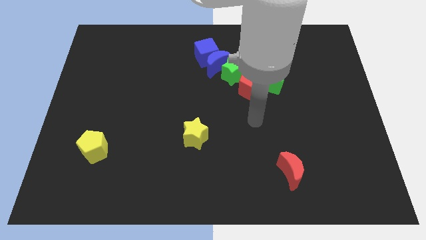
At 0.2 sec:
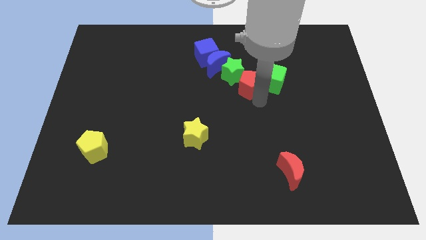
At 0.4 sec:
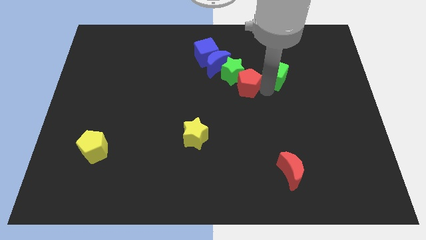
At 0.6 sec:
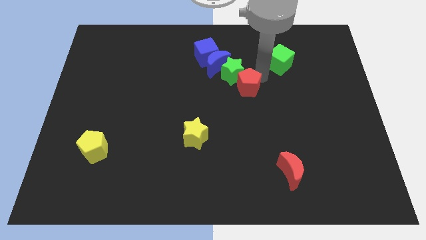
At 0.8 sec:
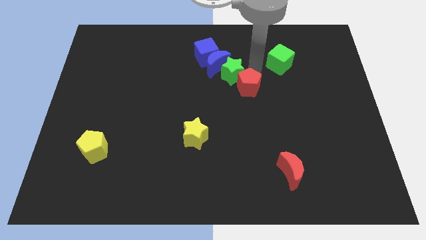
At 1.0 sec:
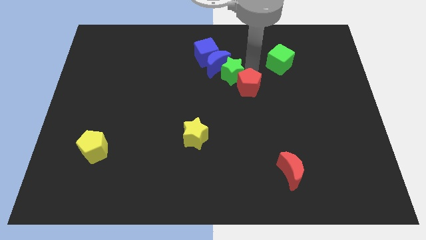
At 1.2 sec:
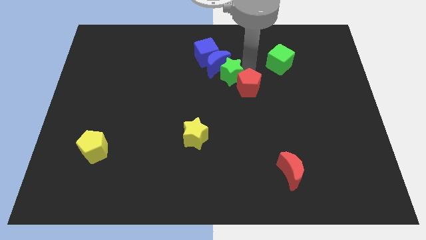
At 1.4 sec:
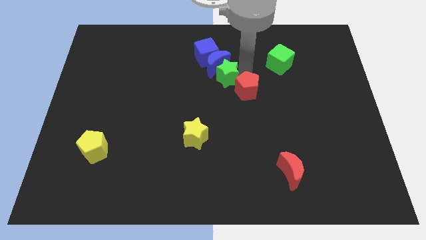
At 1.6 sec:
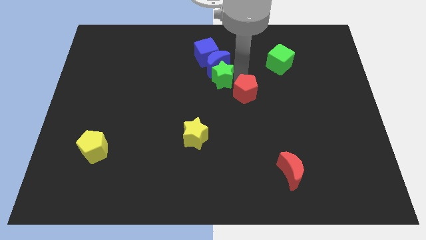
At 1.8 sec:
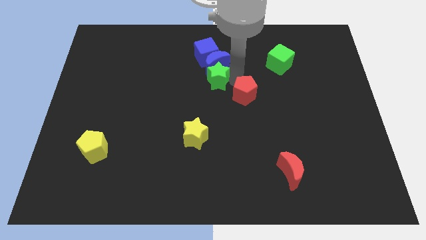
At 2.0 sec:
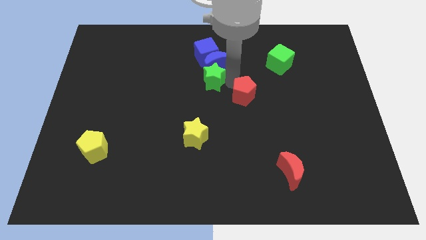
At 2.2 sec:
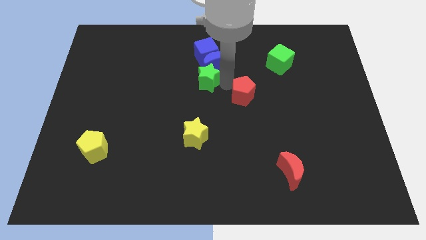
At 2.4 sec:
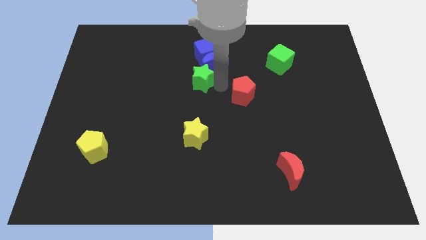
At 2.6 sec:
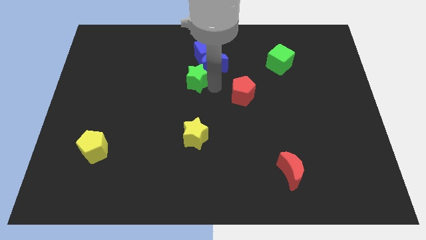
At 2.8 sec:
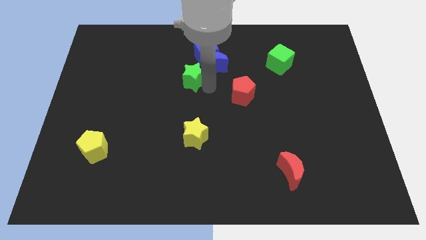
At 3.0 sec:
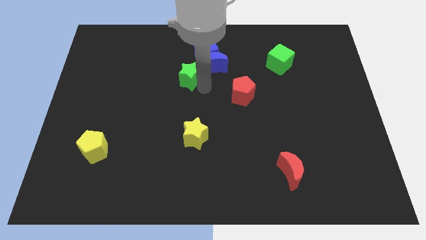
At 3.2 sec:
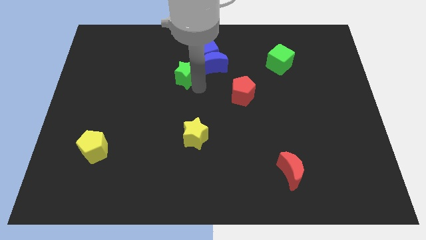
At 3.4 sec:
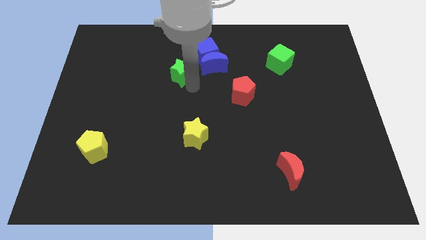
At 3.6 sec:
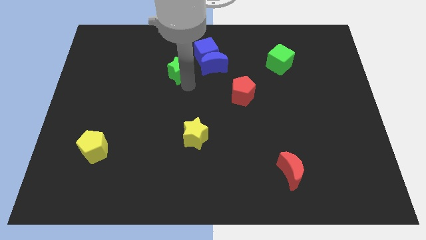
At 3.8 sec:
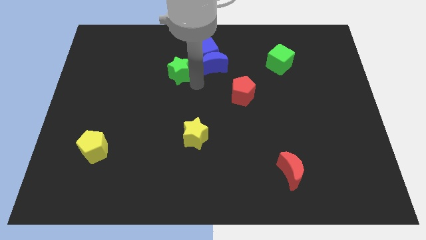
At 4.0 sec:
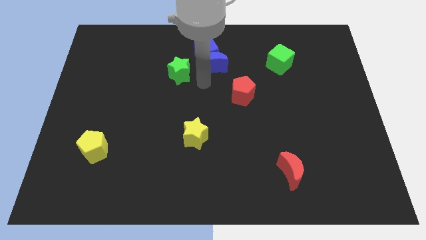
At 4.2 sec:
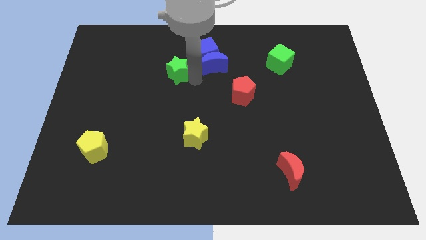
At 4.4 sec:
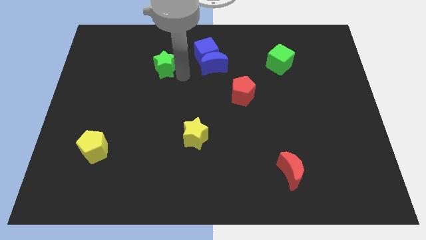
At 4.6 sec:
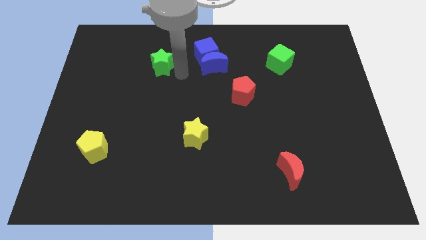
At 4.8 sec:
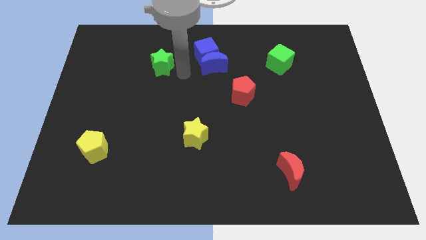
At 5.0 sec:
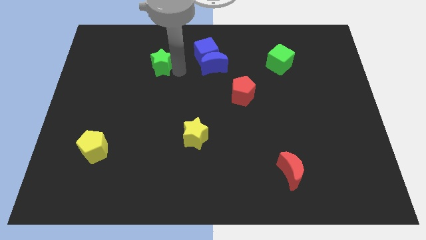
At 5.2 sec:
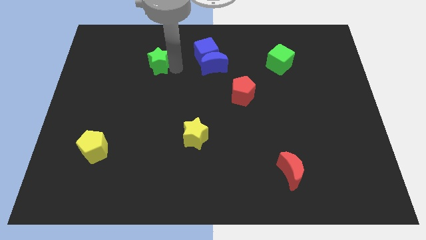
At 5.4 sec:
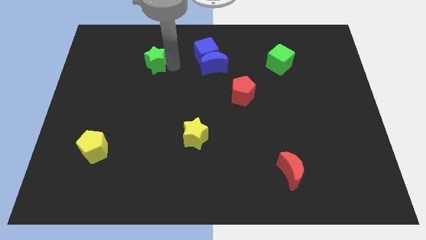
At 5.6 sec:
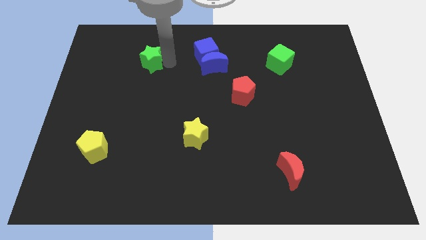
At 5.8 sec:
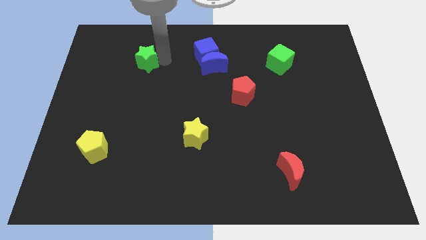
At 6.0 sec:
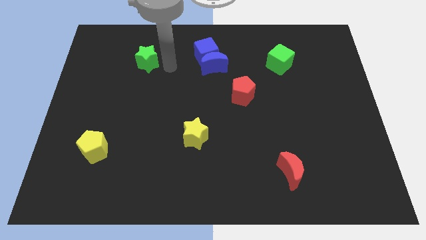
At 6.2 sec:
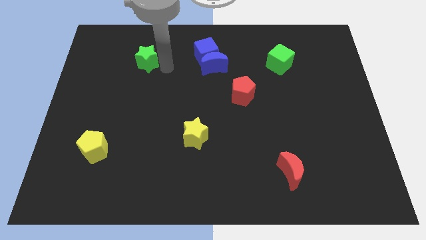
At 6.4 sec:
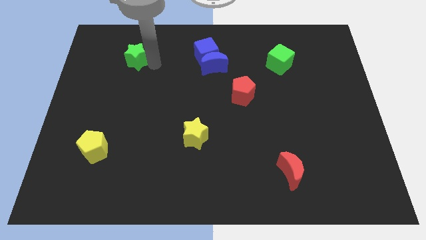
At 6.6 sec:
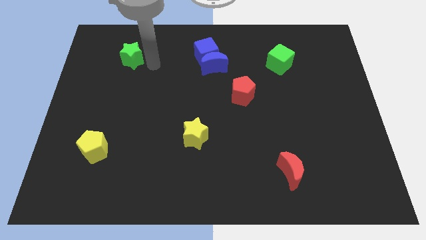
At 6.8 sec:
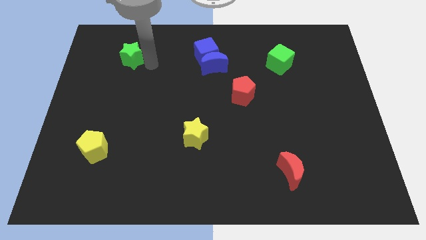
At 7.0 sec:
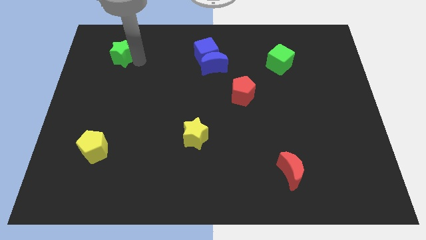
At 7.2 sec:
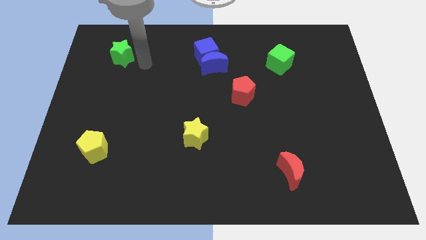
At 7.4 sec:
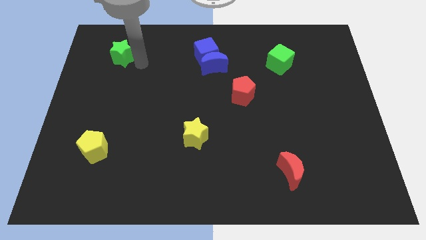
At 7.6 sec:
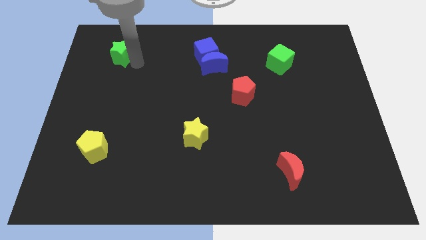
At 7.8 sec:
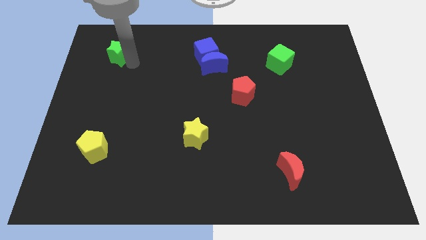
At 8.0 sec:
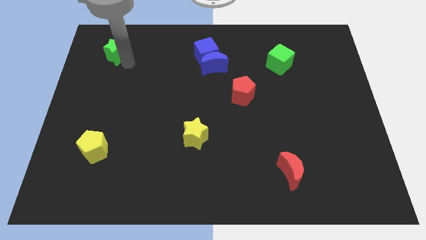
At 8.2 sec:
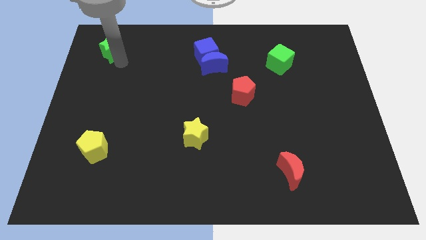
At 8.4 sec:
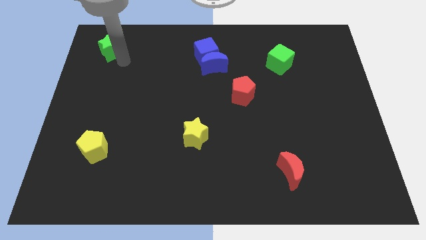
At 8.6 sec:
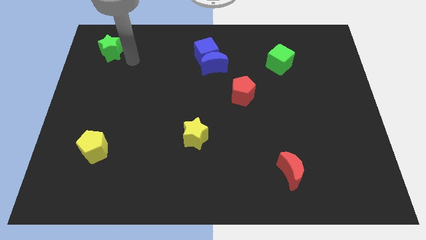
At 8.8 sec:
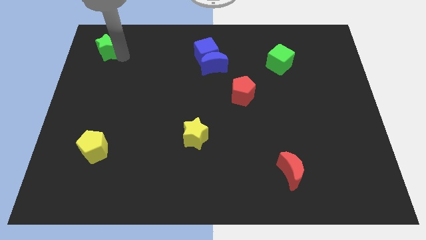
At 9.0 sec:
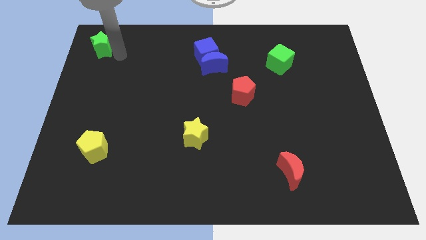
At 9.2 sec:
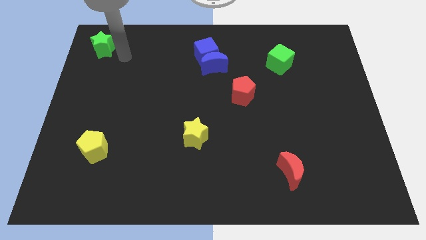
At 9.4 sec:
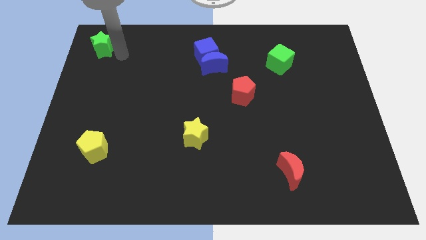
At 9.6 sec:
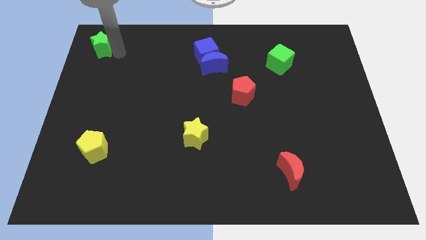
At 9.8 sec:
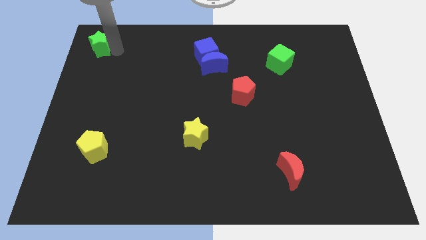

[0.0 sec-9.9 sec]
move the green star to the top left

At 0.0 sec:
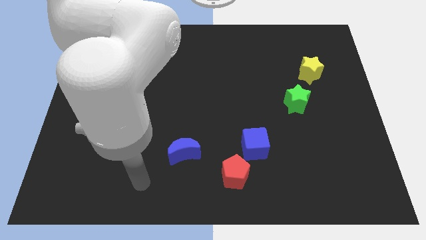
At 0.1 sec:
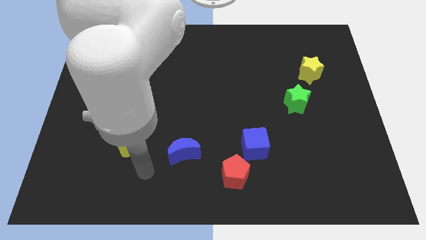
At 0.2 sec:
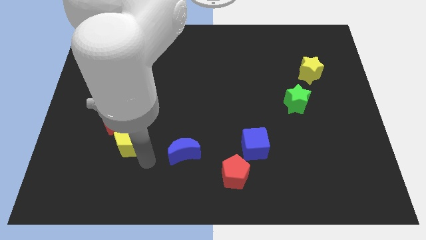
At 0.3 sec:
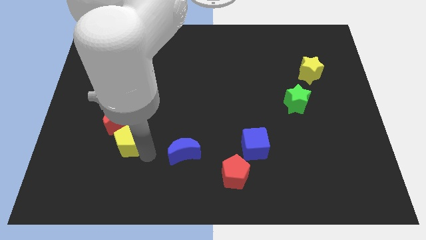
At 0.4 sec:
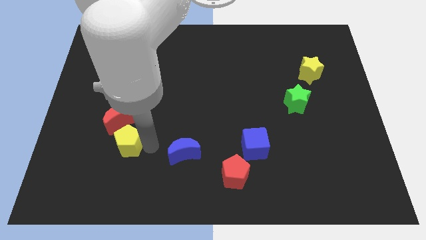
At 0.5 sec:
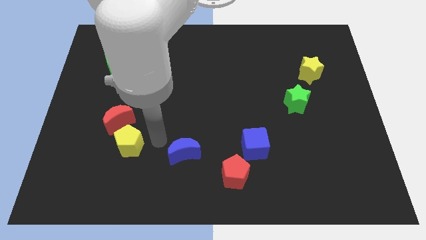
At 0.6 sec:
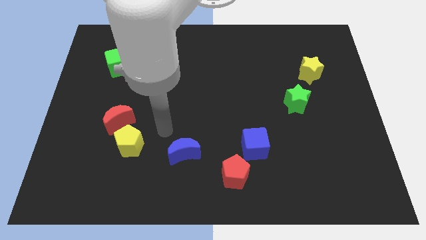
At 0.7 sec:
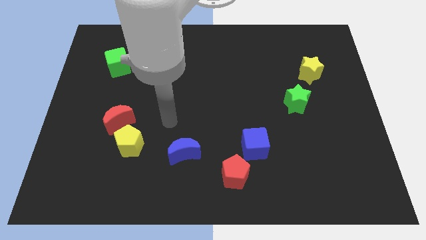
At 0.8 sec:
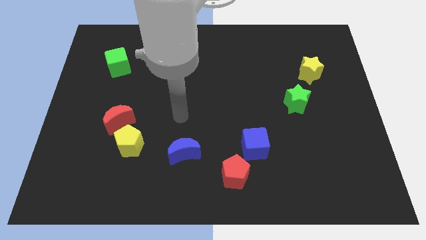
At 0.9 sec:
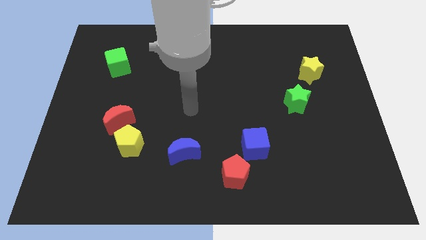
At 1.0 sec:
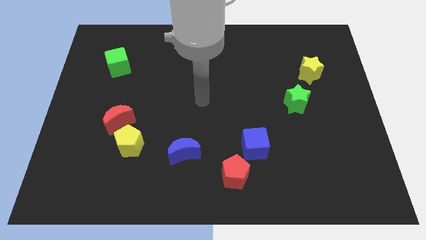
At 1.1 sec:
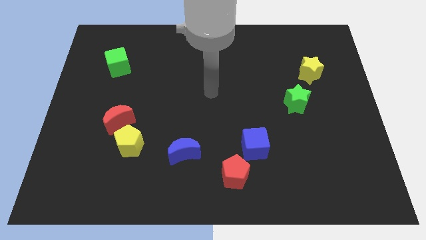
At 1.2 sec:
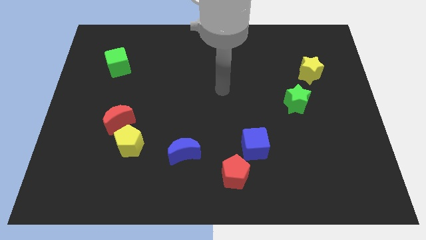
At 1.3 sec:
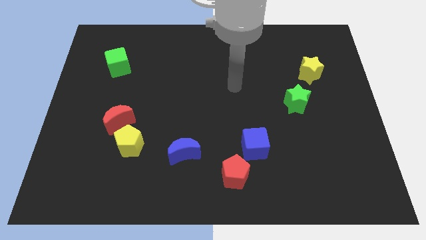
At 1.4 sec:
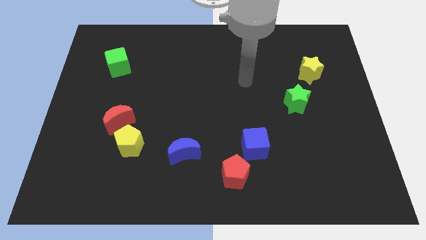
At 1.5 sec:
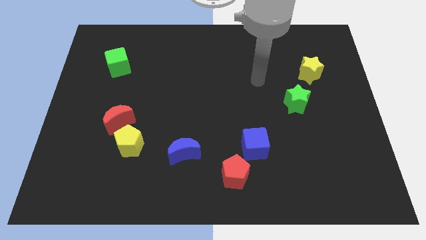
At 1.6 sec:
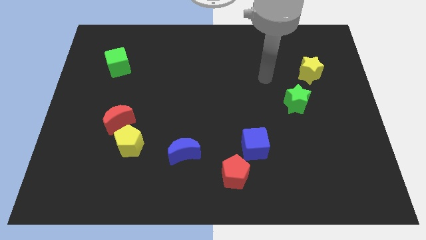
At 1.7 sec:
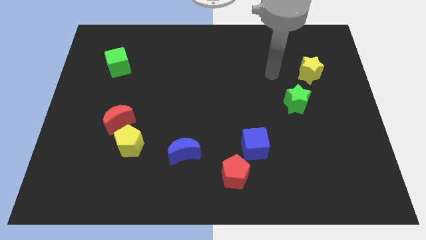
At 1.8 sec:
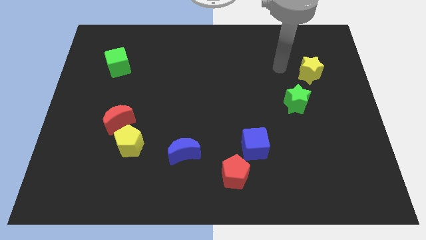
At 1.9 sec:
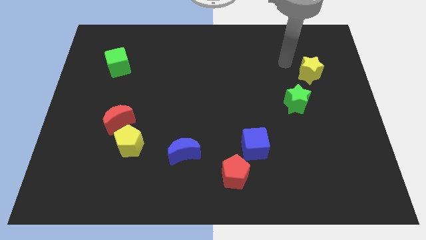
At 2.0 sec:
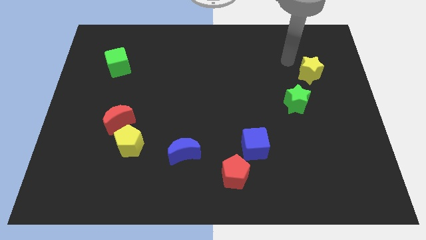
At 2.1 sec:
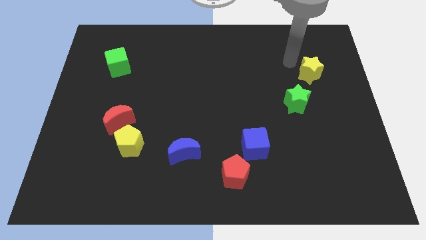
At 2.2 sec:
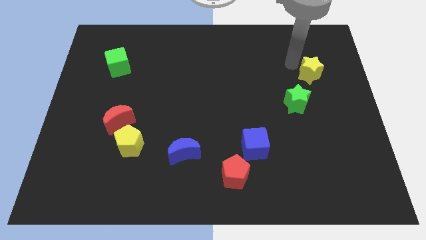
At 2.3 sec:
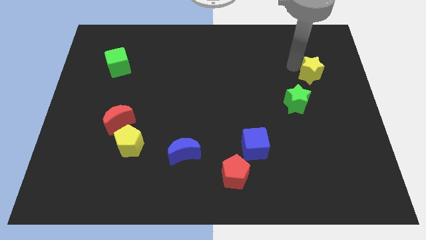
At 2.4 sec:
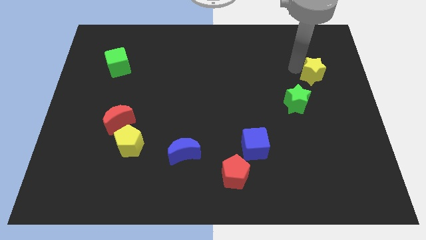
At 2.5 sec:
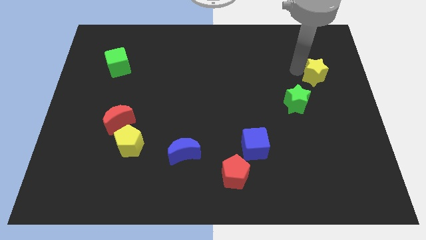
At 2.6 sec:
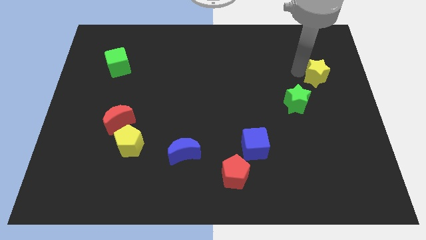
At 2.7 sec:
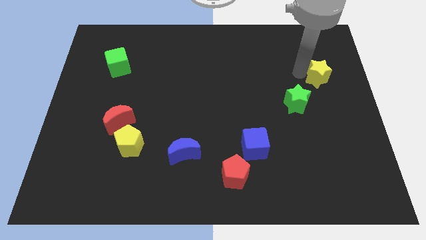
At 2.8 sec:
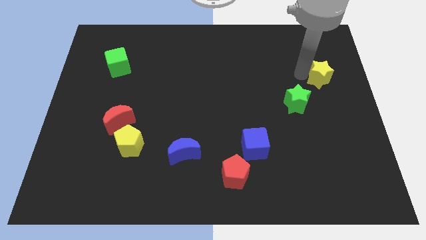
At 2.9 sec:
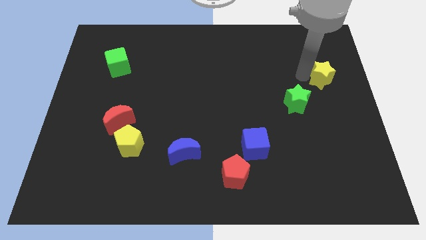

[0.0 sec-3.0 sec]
slide the yellow star to the right side
